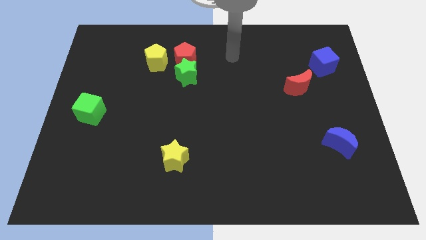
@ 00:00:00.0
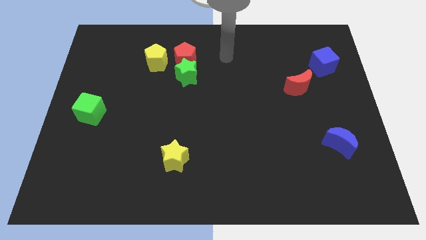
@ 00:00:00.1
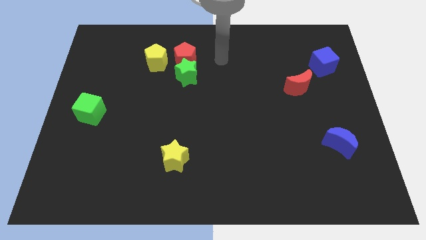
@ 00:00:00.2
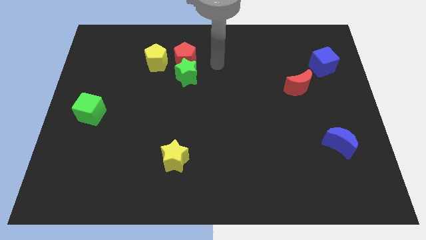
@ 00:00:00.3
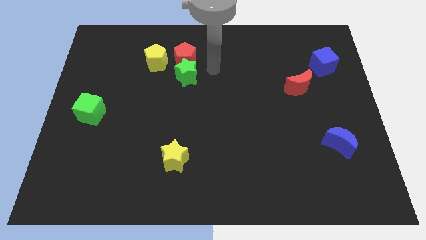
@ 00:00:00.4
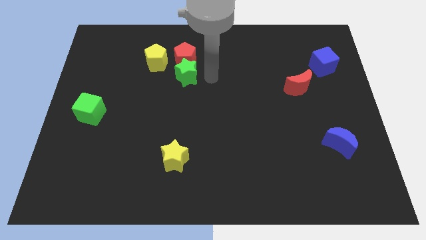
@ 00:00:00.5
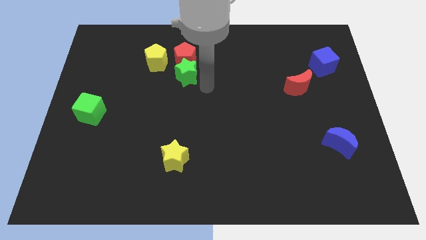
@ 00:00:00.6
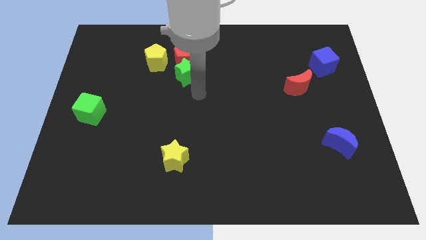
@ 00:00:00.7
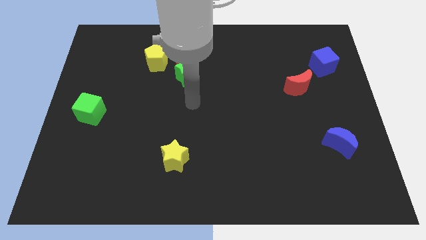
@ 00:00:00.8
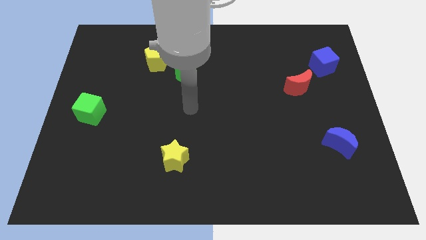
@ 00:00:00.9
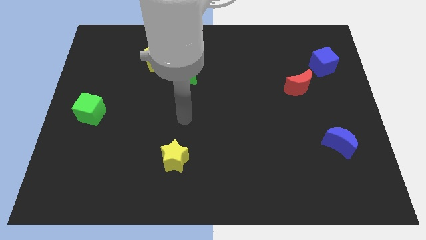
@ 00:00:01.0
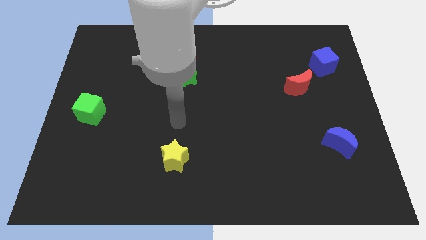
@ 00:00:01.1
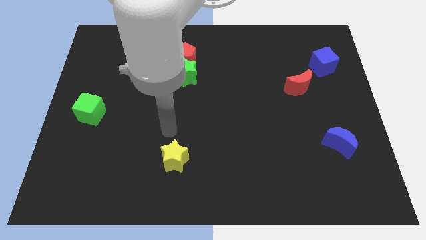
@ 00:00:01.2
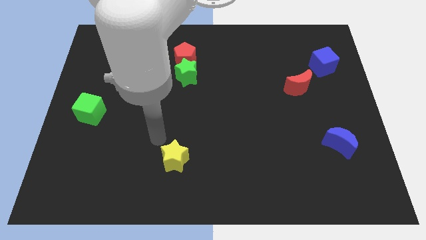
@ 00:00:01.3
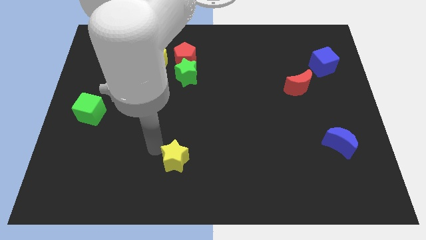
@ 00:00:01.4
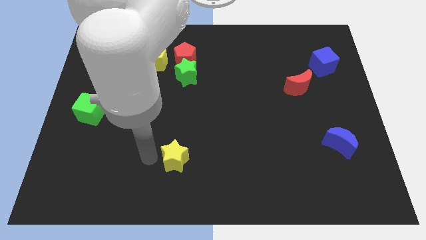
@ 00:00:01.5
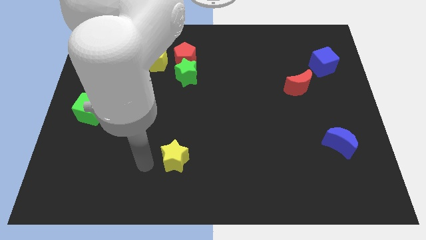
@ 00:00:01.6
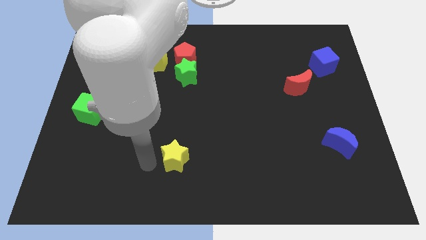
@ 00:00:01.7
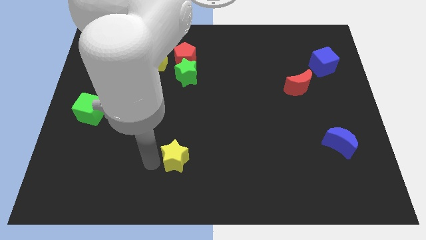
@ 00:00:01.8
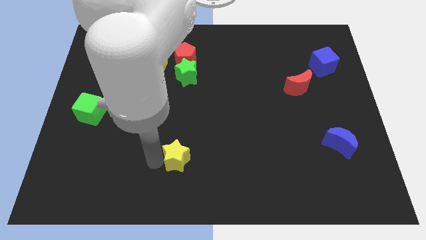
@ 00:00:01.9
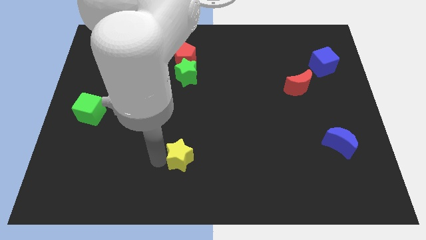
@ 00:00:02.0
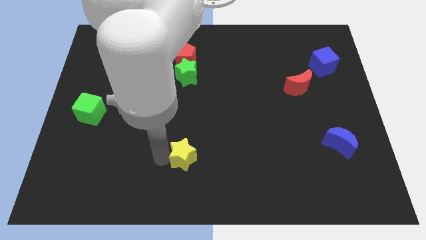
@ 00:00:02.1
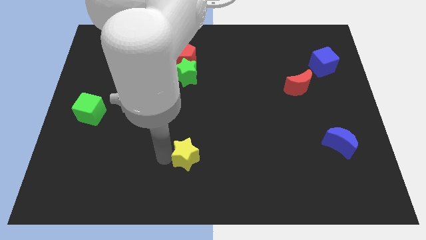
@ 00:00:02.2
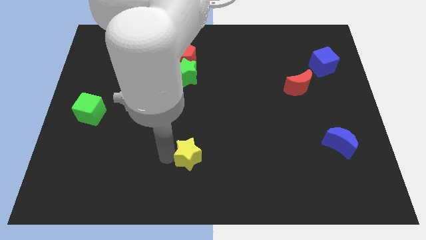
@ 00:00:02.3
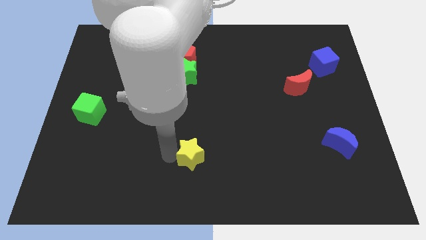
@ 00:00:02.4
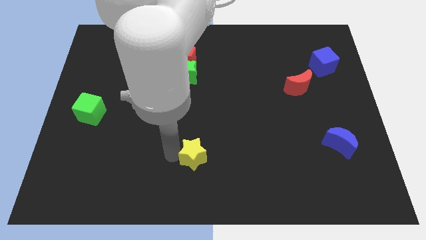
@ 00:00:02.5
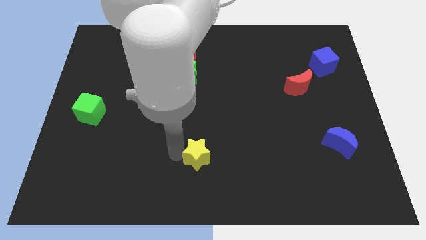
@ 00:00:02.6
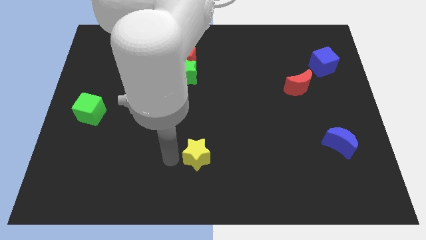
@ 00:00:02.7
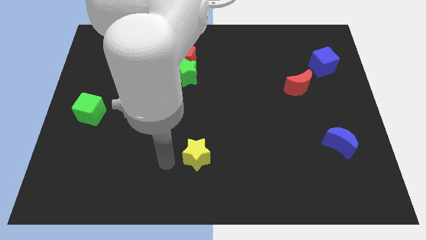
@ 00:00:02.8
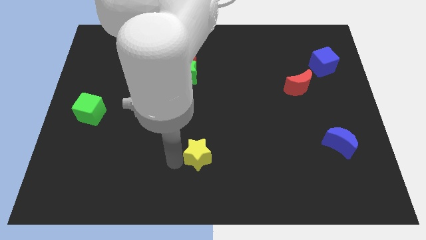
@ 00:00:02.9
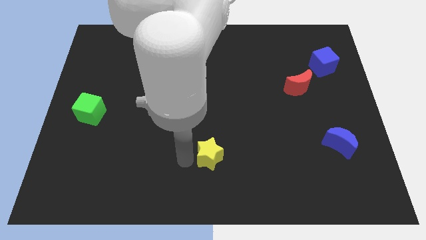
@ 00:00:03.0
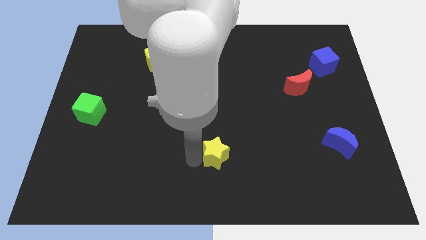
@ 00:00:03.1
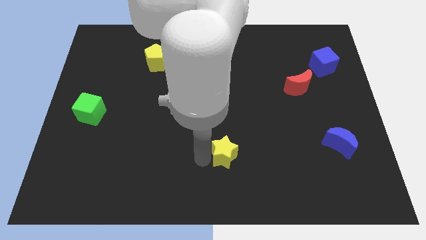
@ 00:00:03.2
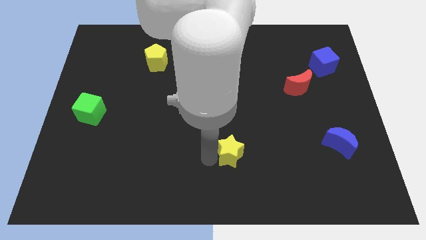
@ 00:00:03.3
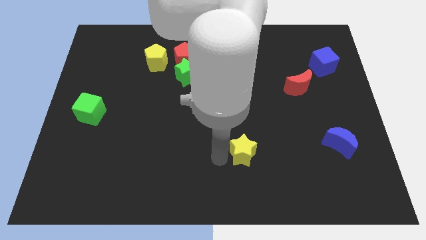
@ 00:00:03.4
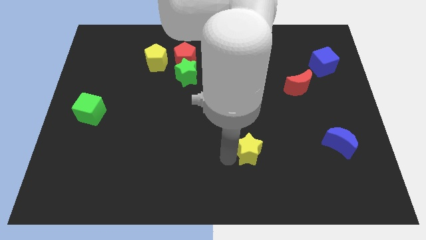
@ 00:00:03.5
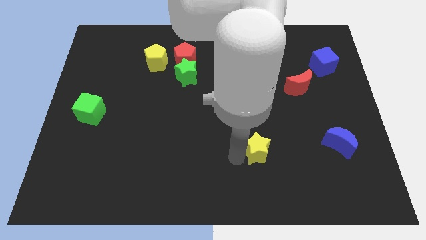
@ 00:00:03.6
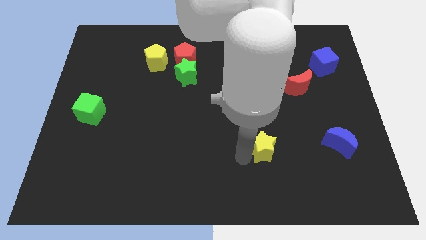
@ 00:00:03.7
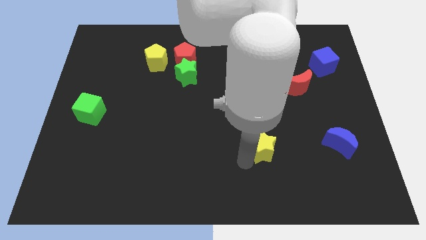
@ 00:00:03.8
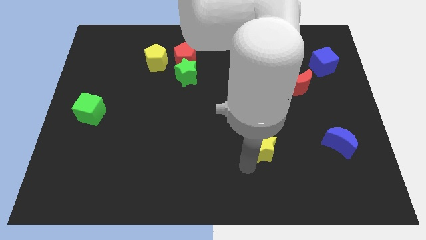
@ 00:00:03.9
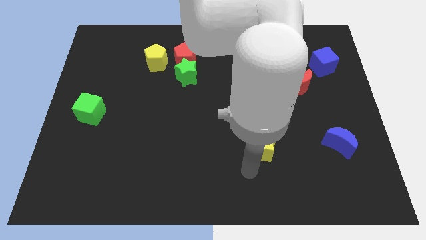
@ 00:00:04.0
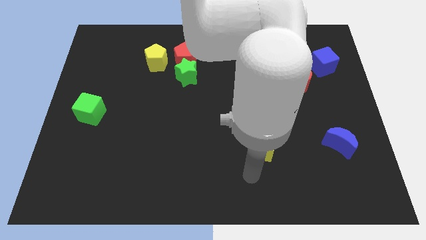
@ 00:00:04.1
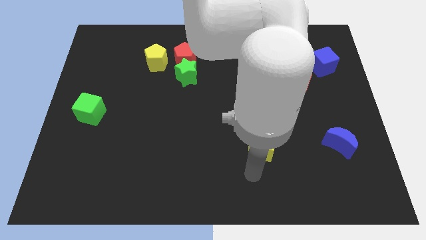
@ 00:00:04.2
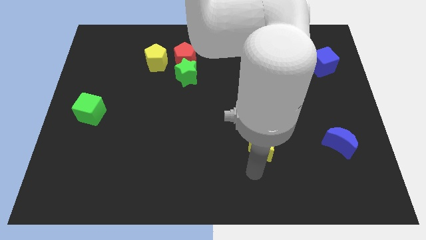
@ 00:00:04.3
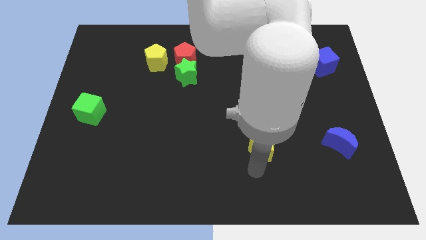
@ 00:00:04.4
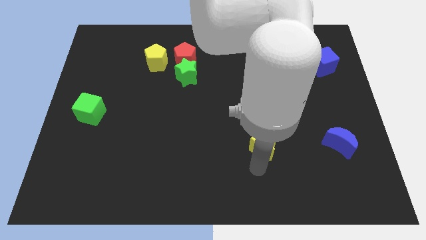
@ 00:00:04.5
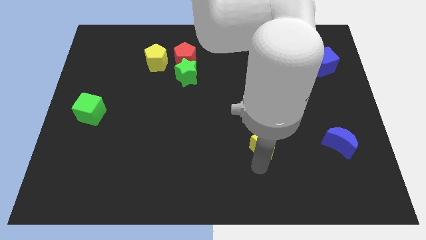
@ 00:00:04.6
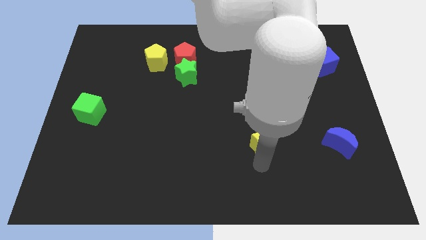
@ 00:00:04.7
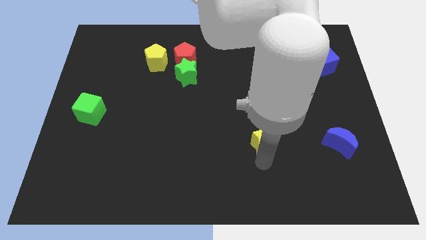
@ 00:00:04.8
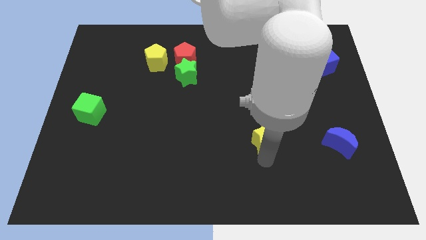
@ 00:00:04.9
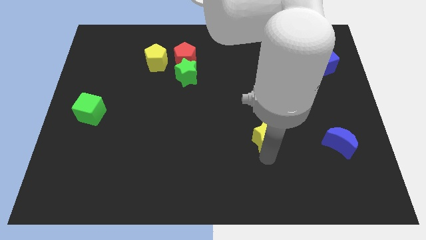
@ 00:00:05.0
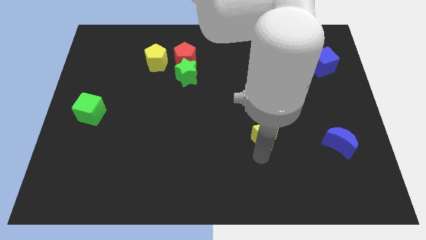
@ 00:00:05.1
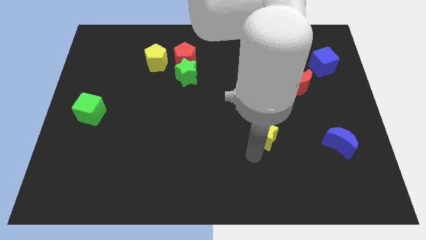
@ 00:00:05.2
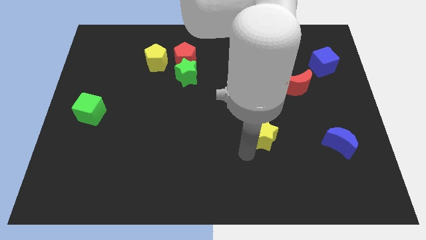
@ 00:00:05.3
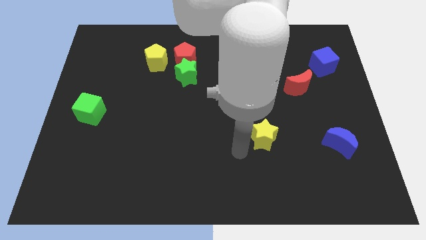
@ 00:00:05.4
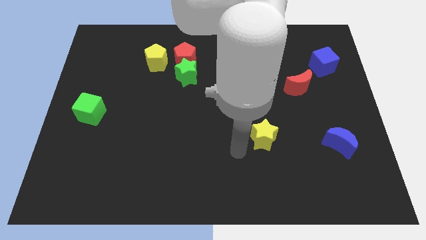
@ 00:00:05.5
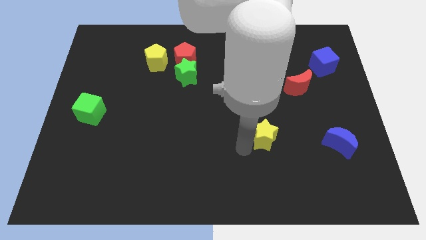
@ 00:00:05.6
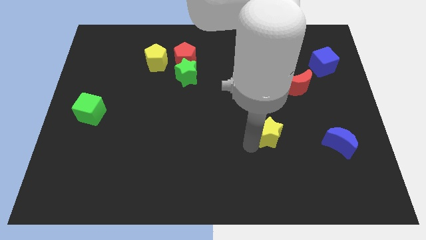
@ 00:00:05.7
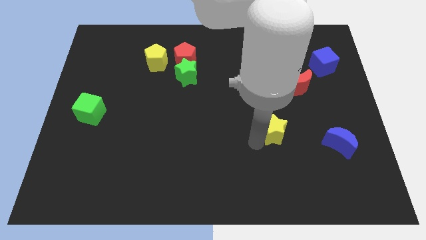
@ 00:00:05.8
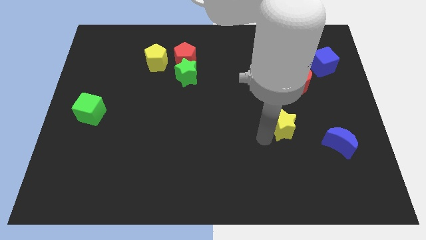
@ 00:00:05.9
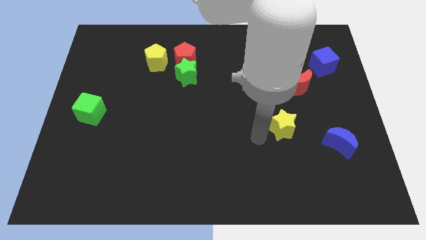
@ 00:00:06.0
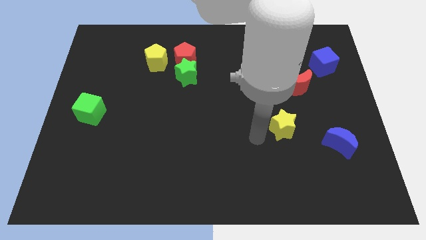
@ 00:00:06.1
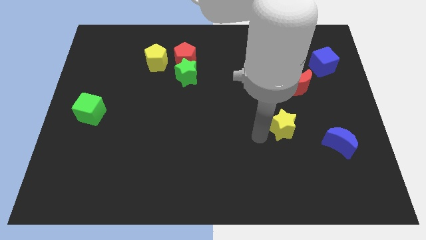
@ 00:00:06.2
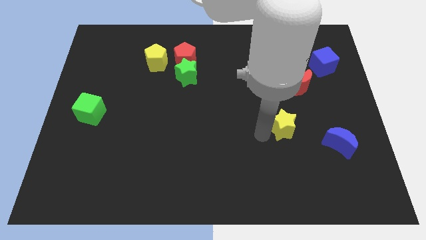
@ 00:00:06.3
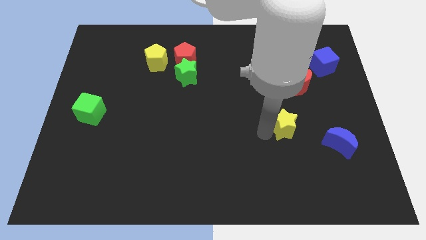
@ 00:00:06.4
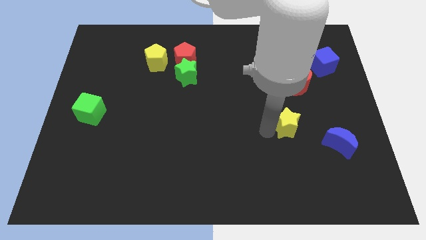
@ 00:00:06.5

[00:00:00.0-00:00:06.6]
push the yellow star below the red moon
